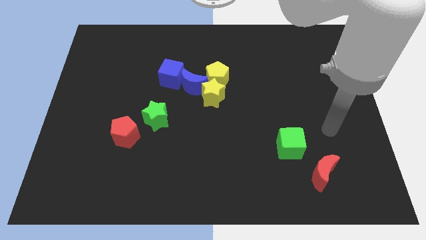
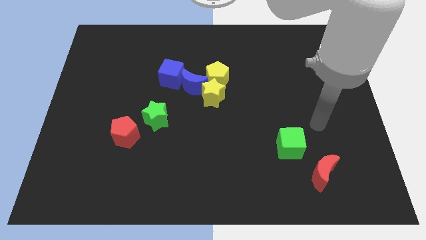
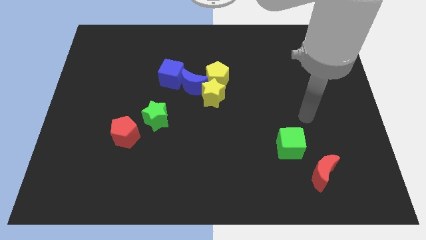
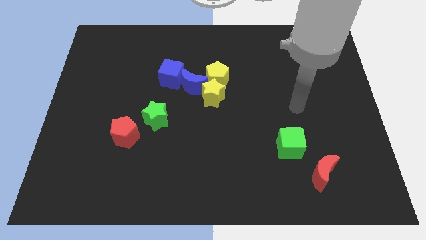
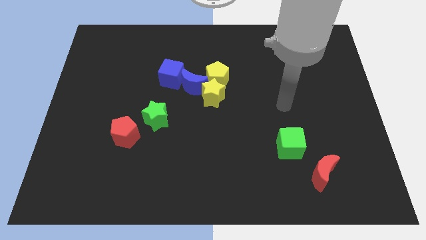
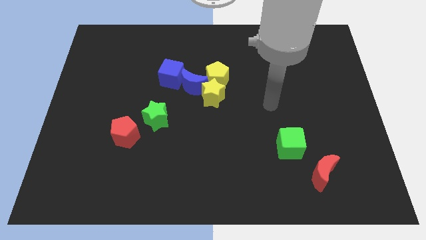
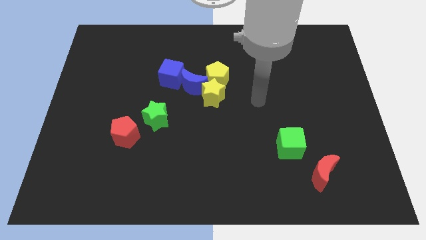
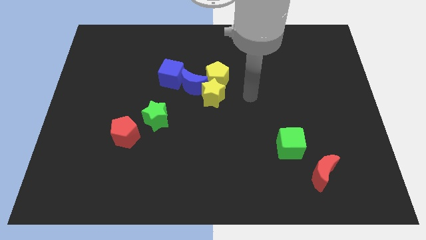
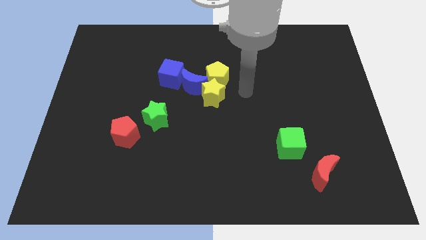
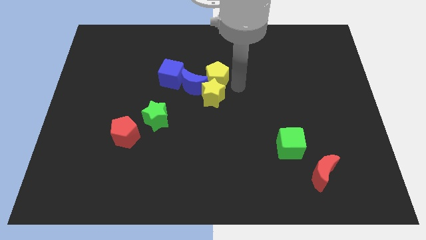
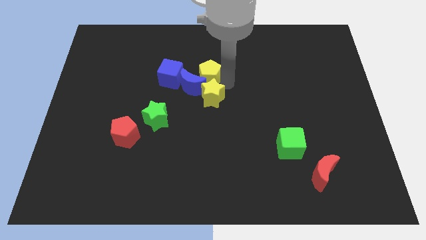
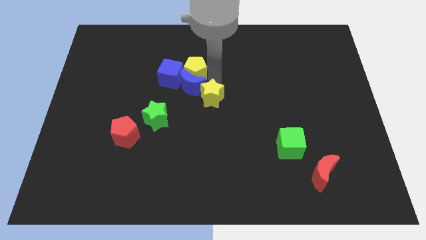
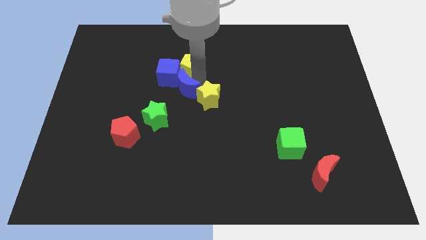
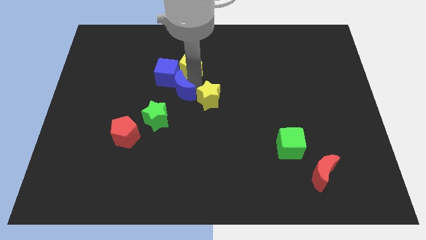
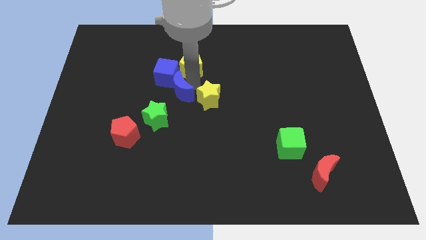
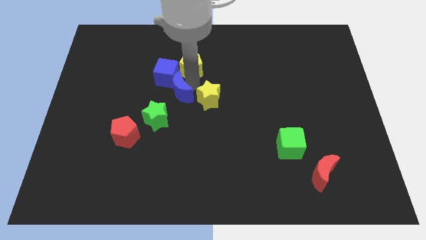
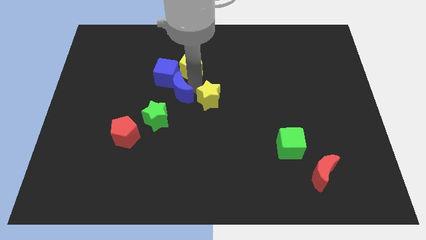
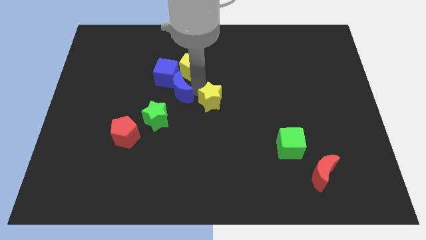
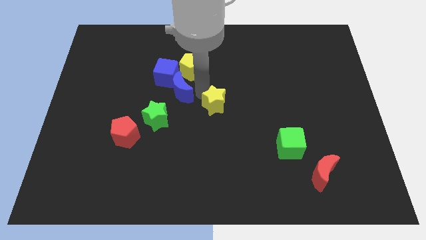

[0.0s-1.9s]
move the yellow star away from the blue moon and yellow pentagon

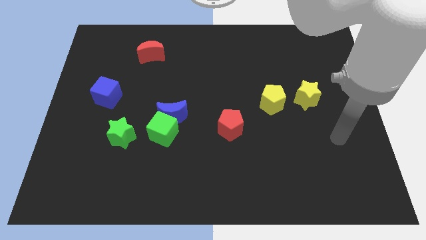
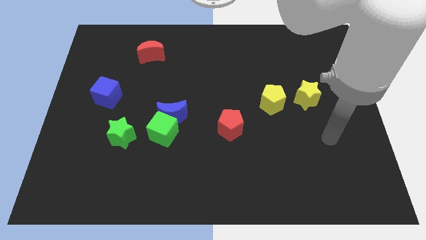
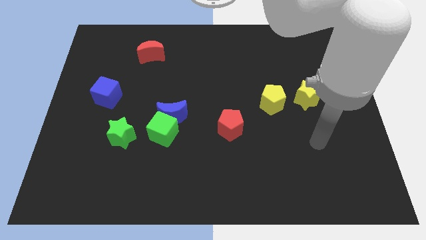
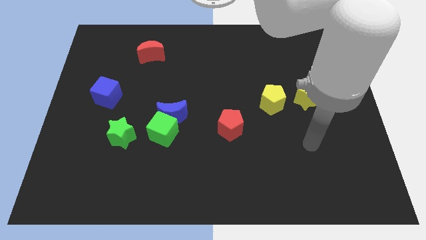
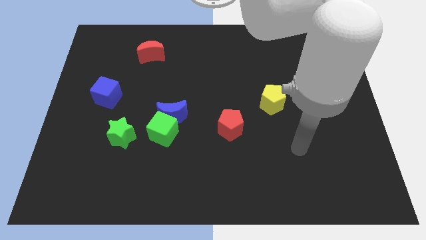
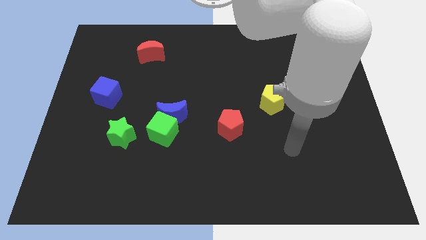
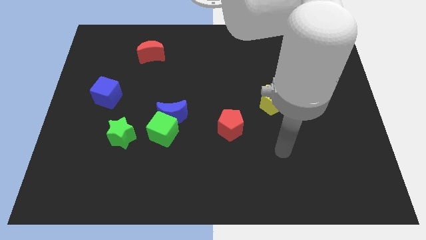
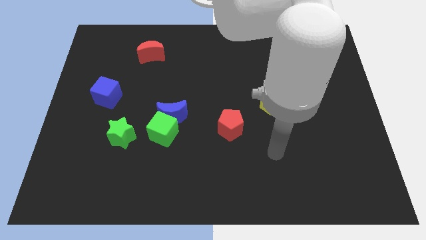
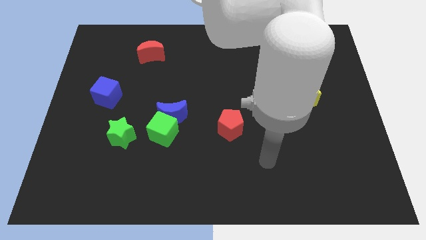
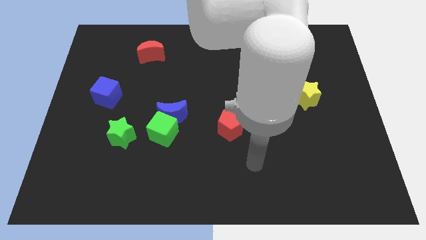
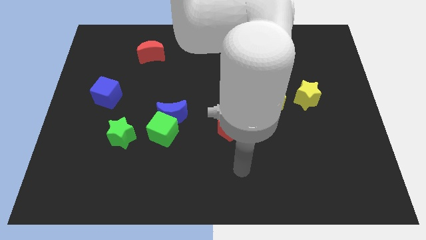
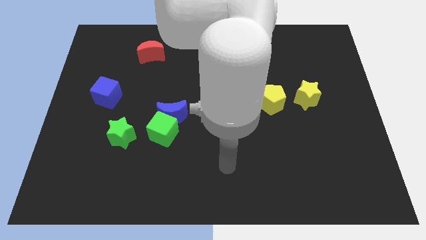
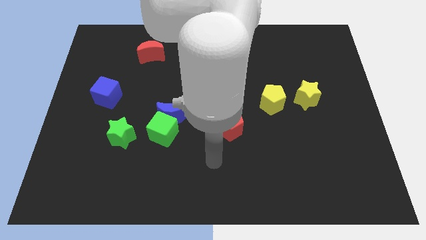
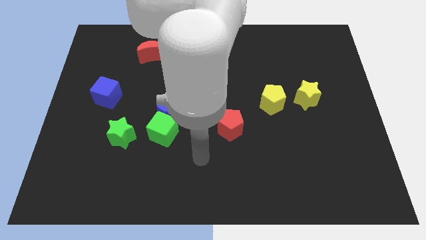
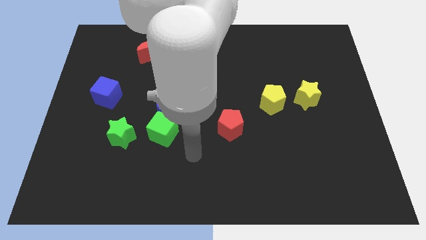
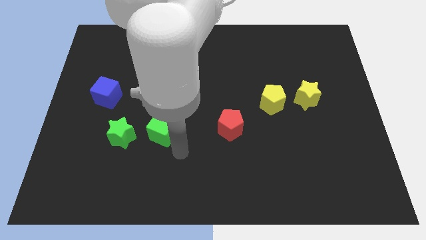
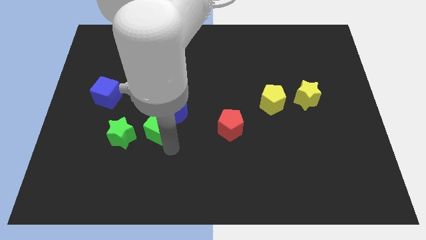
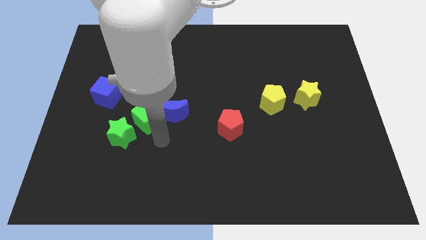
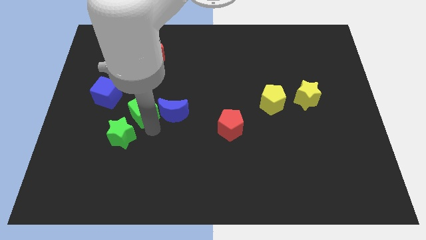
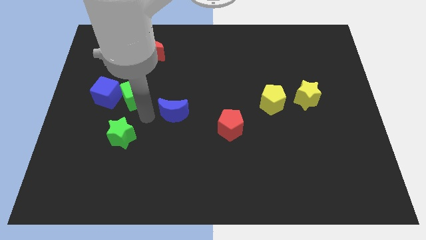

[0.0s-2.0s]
separate the blue moon from the green cube

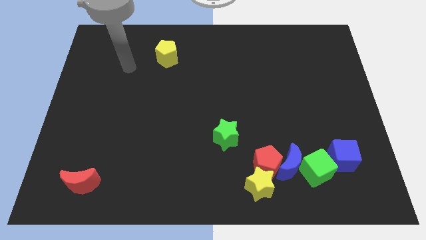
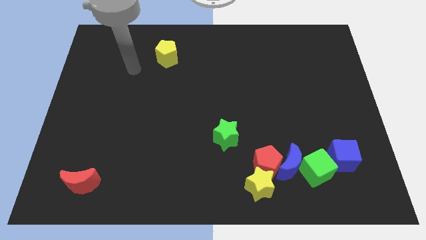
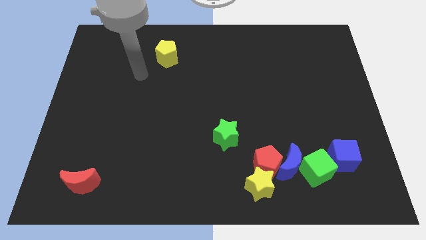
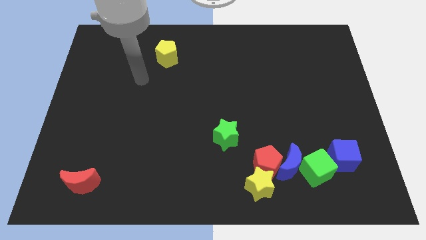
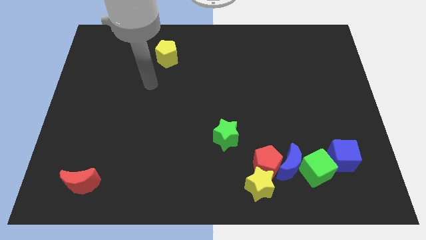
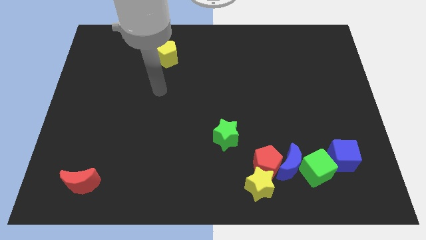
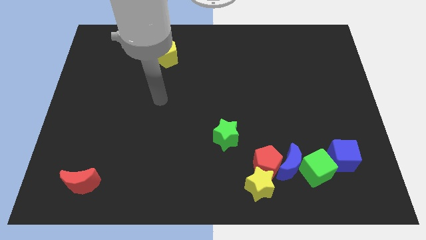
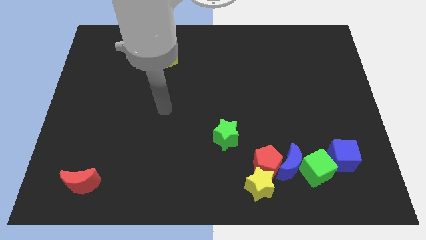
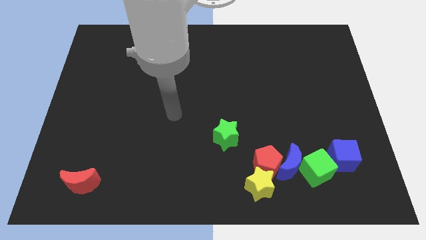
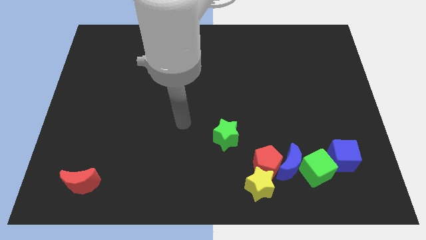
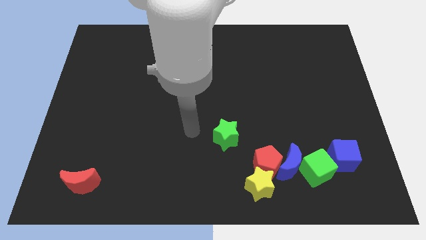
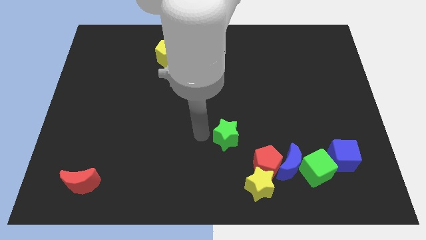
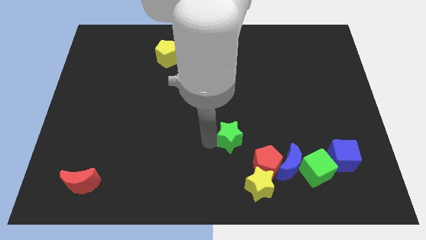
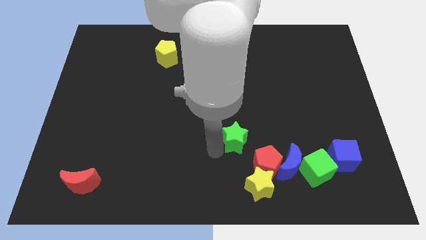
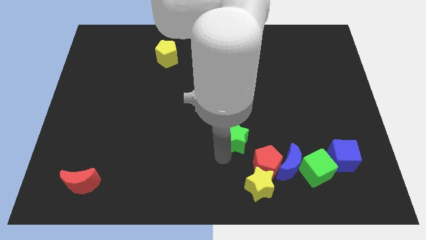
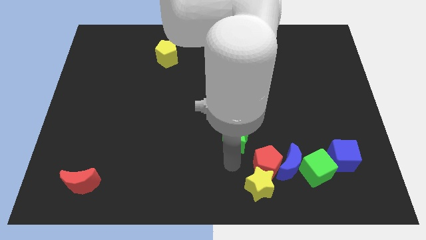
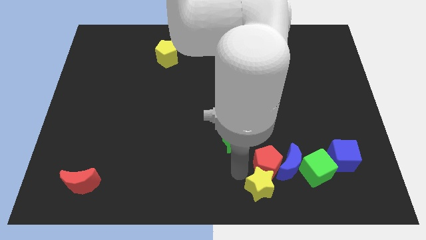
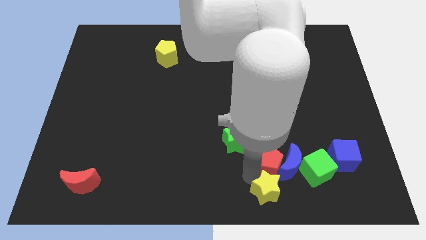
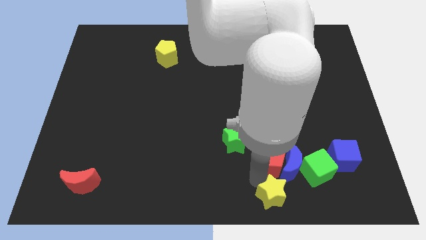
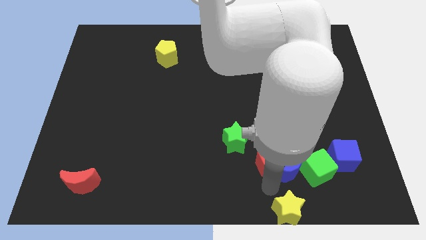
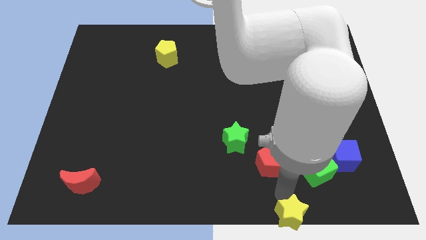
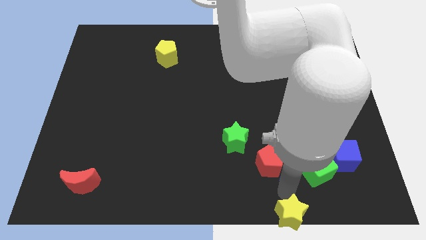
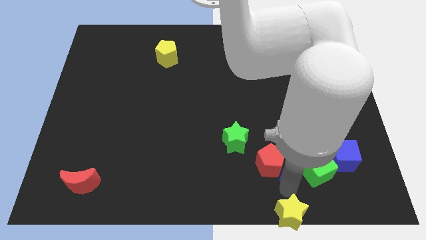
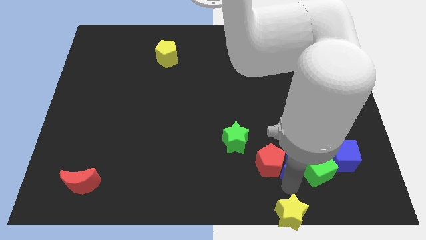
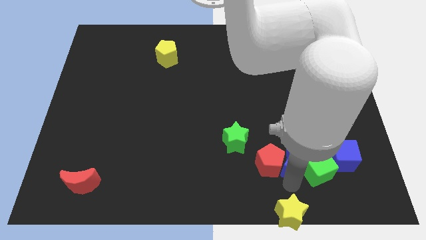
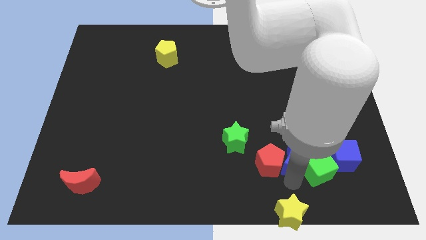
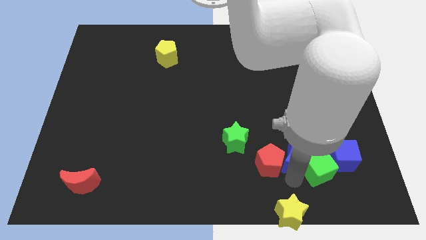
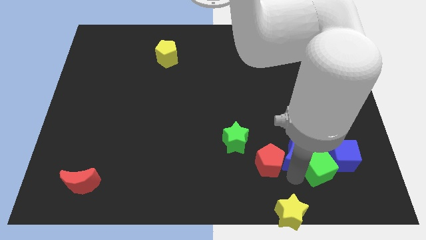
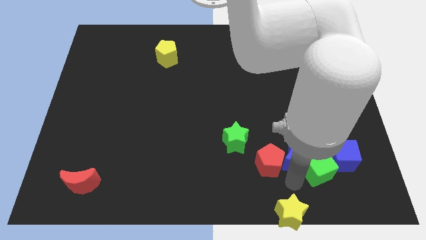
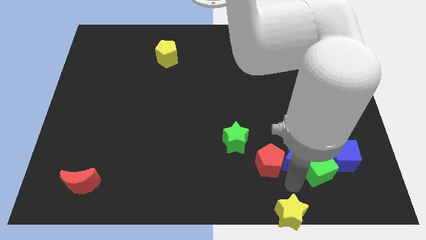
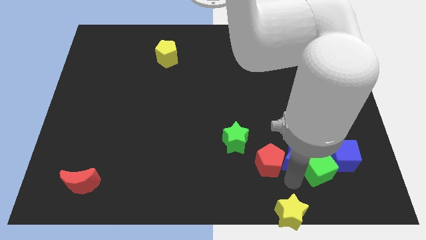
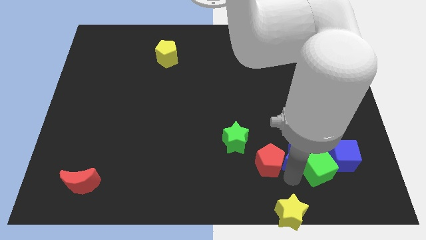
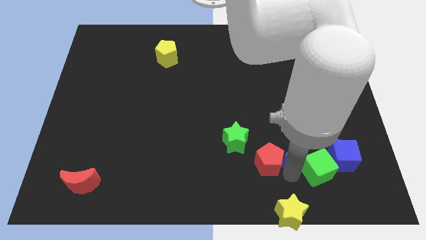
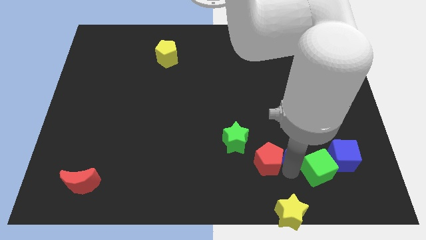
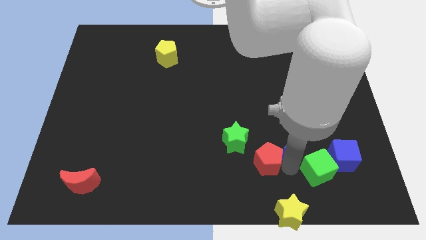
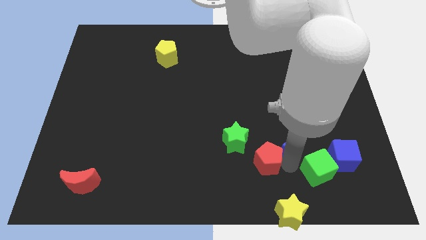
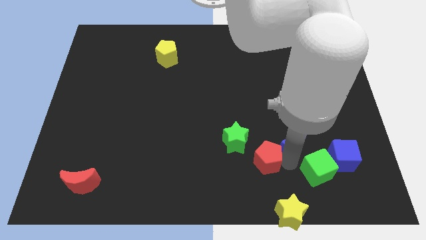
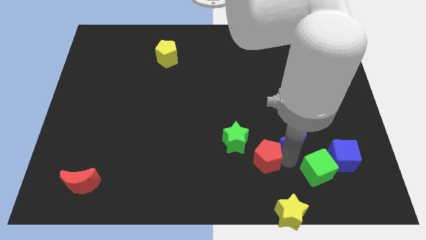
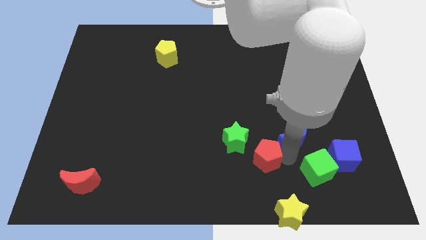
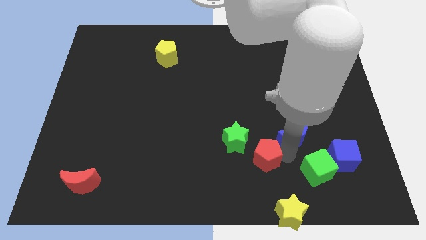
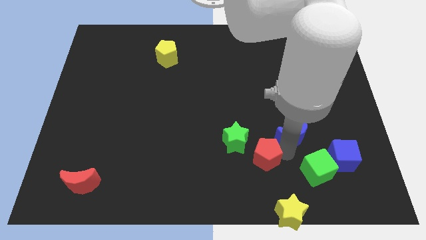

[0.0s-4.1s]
move the blue moon away from the group of blocks

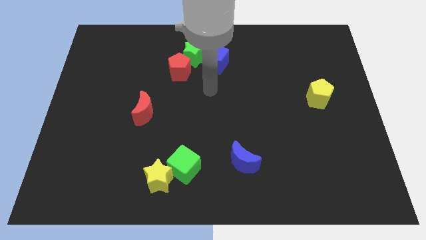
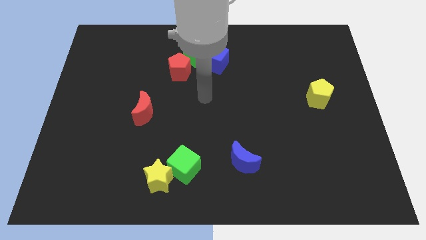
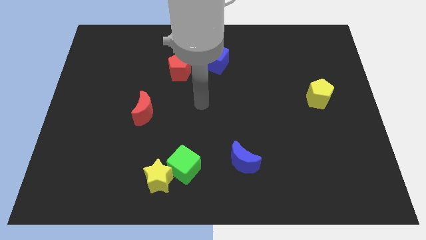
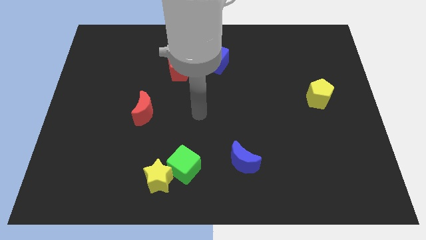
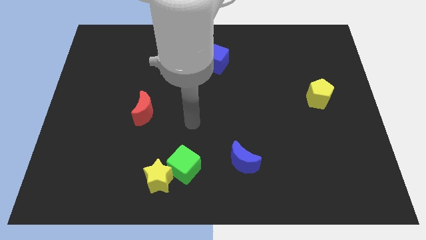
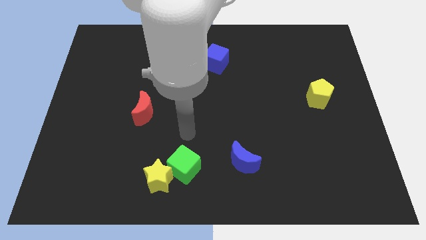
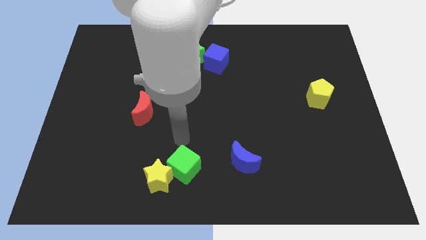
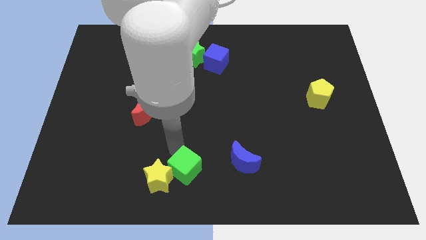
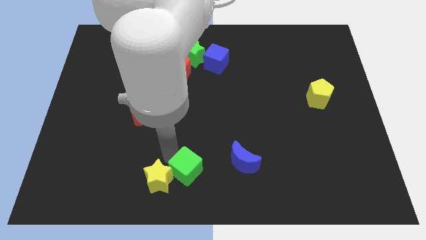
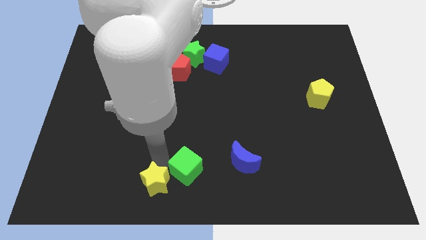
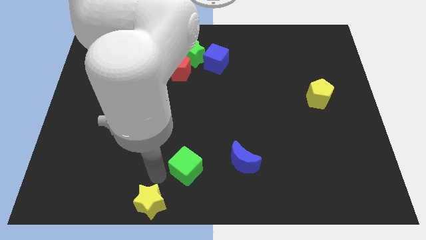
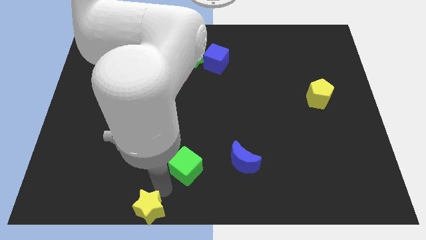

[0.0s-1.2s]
move the green cube away from the yellow star

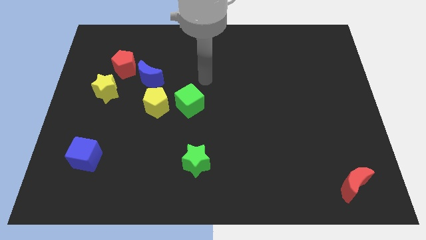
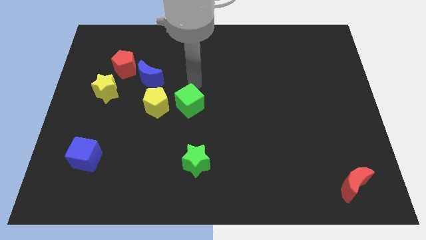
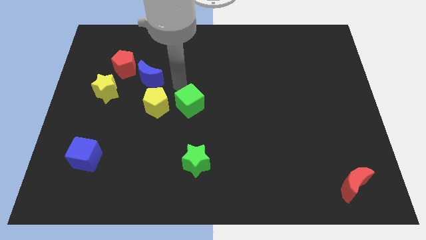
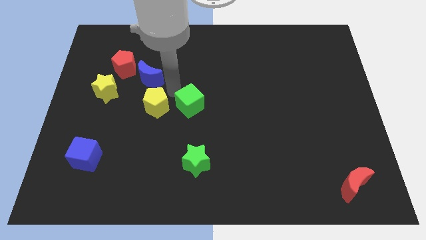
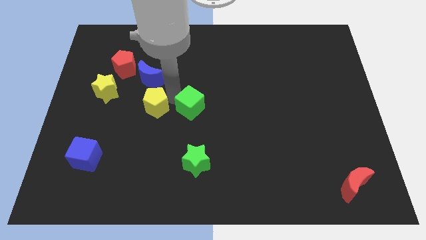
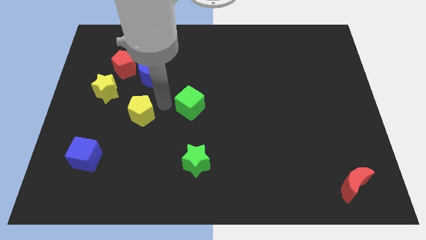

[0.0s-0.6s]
move the green cube away from the yellow pentagon
